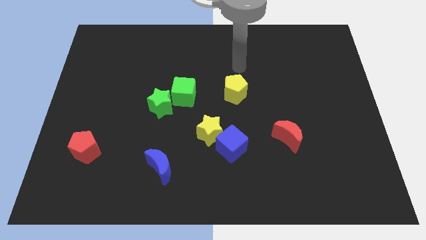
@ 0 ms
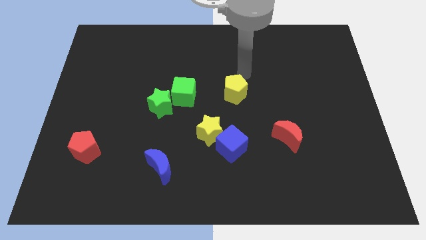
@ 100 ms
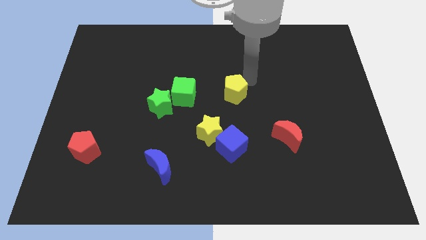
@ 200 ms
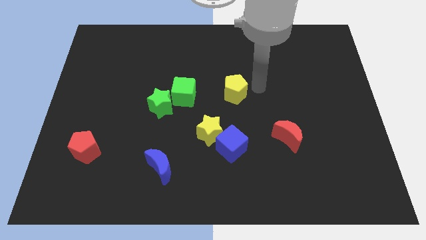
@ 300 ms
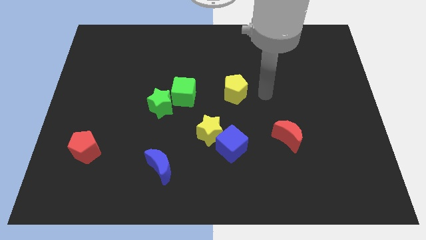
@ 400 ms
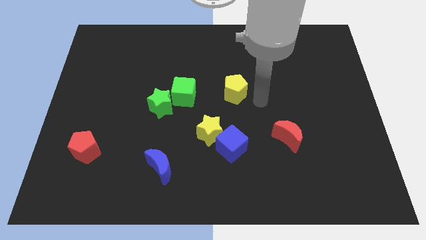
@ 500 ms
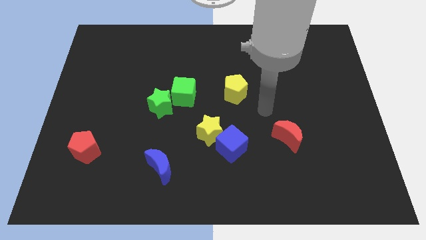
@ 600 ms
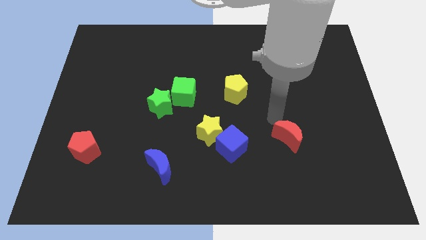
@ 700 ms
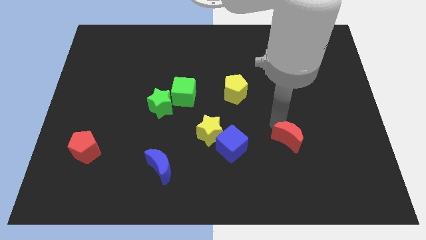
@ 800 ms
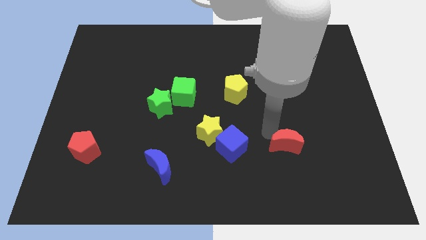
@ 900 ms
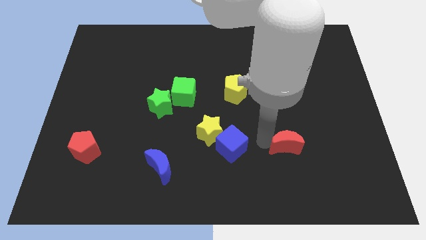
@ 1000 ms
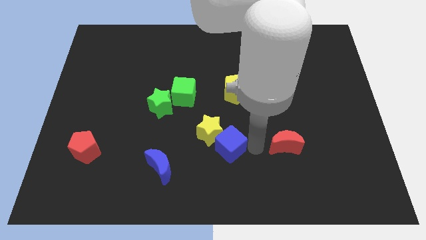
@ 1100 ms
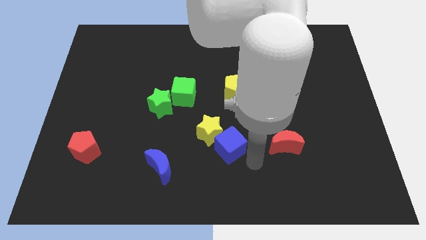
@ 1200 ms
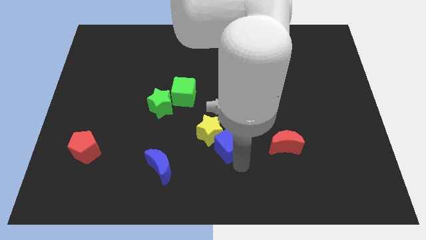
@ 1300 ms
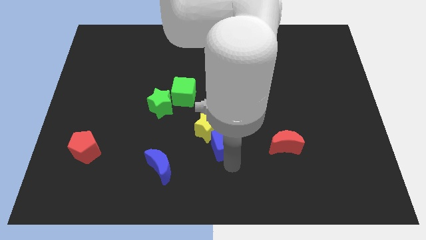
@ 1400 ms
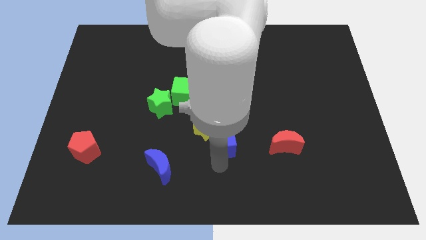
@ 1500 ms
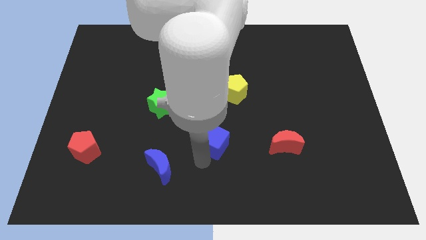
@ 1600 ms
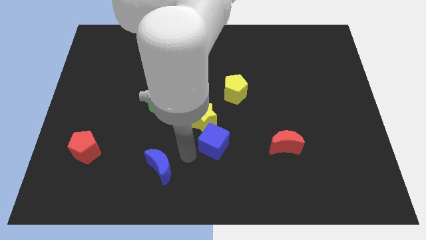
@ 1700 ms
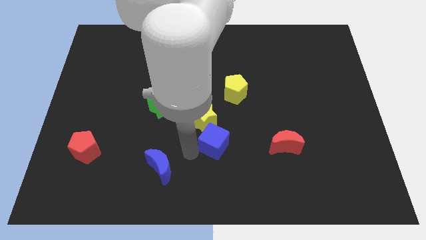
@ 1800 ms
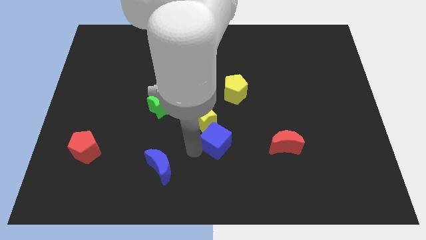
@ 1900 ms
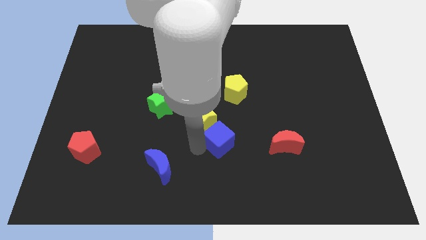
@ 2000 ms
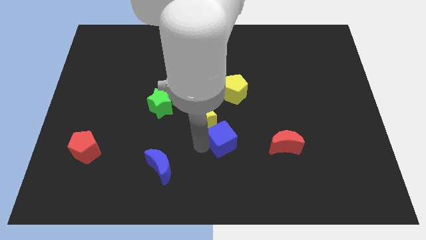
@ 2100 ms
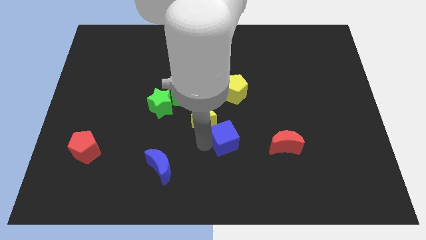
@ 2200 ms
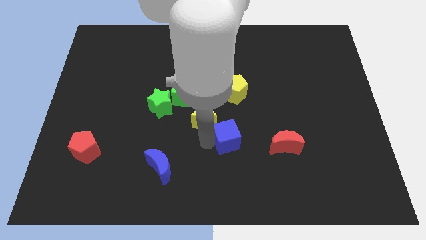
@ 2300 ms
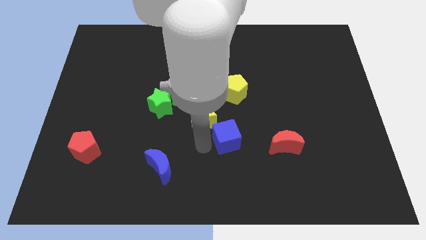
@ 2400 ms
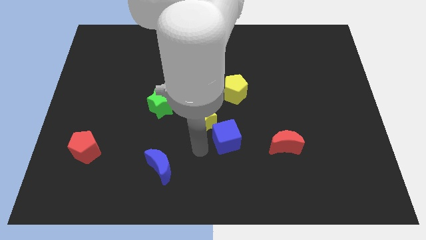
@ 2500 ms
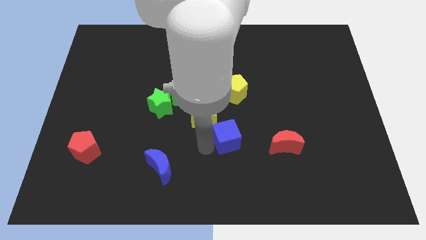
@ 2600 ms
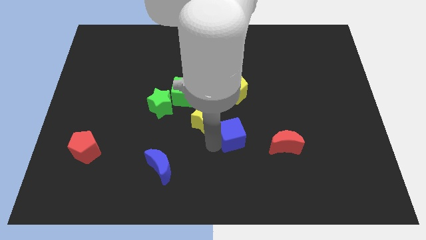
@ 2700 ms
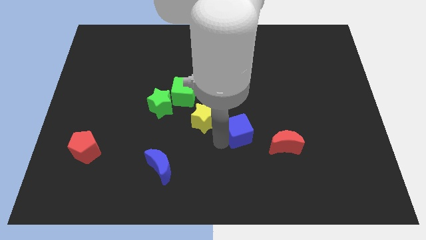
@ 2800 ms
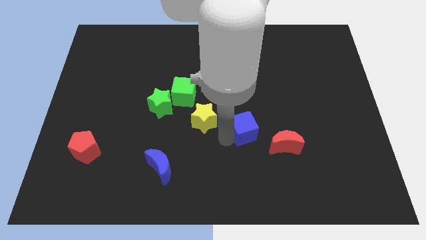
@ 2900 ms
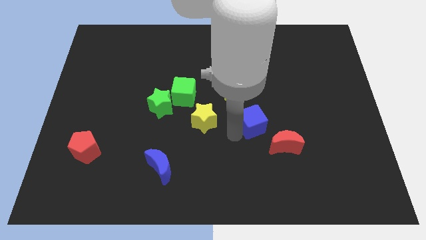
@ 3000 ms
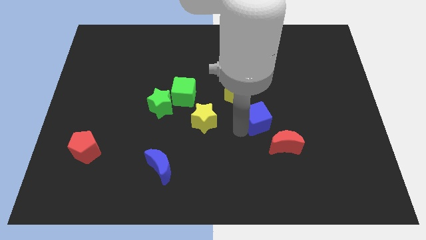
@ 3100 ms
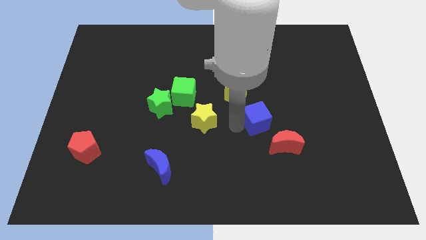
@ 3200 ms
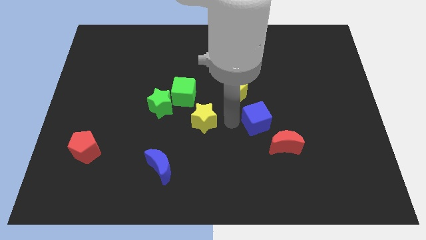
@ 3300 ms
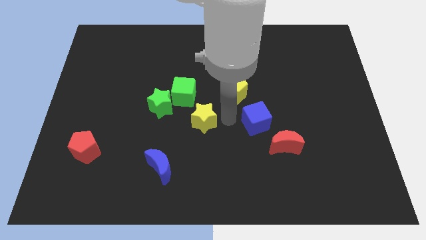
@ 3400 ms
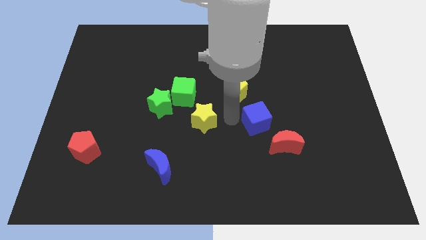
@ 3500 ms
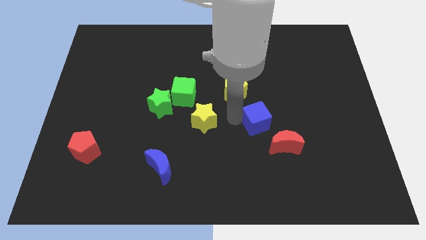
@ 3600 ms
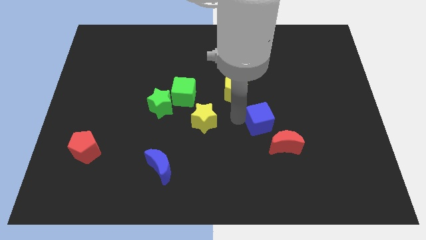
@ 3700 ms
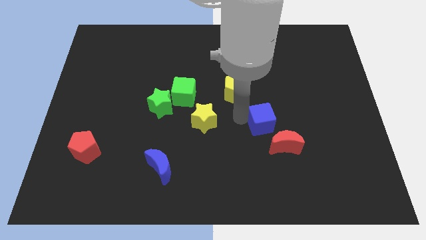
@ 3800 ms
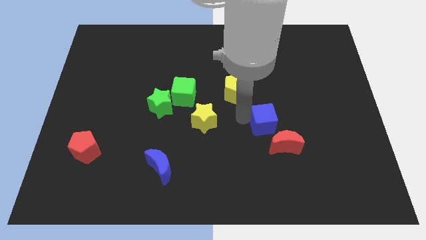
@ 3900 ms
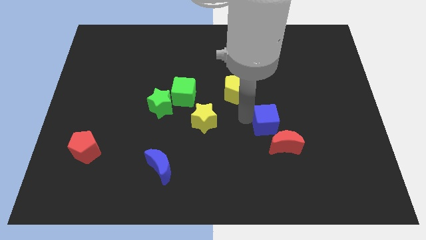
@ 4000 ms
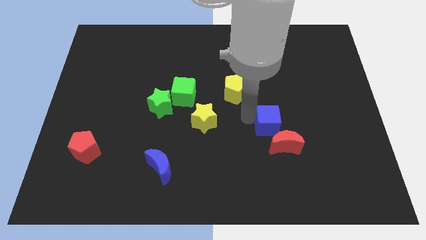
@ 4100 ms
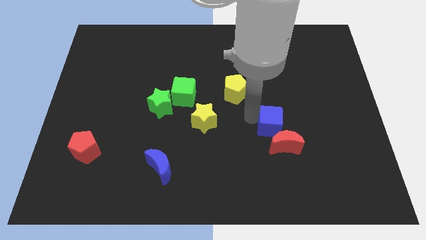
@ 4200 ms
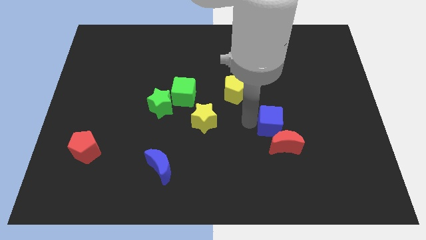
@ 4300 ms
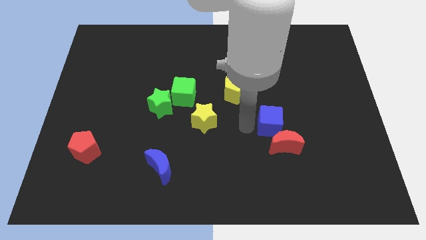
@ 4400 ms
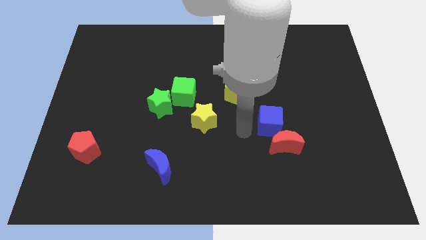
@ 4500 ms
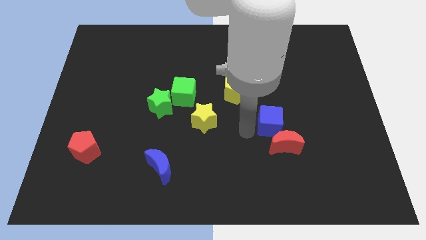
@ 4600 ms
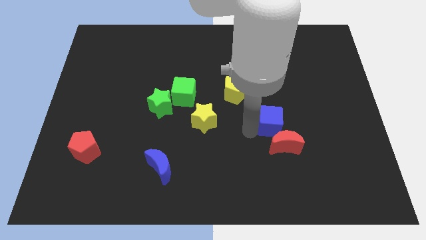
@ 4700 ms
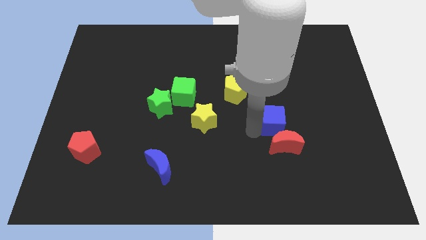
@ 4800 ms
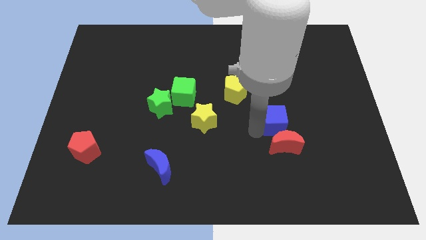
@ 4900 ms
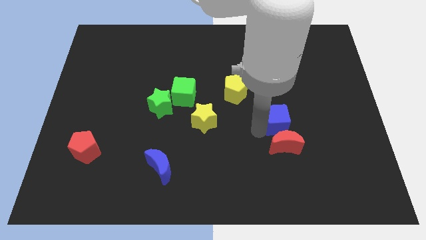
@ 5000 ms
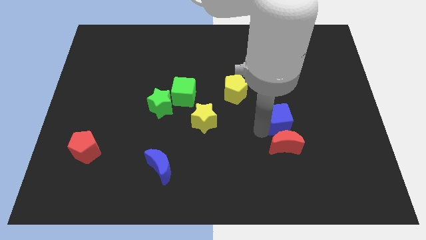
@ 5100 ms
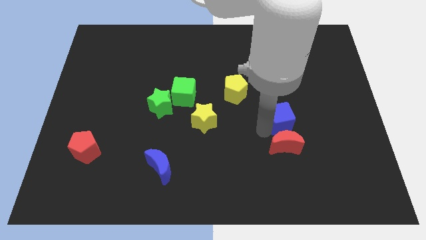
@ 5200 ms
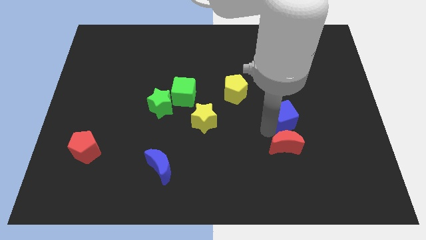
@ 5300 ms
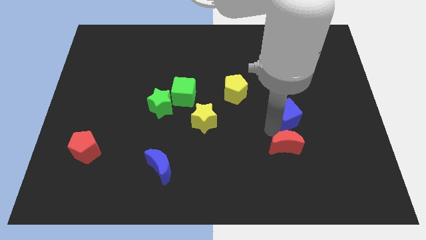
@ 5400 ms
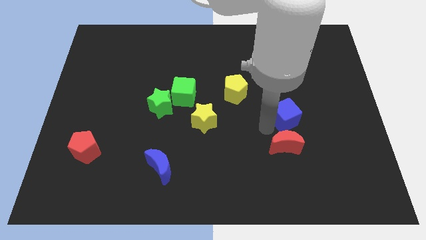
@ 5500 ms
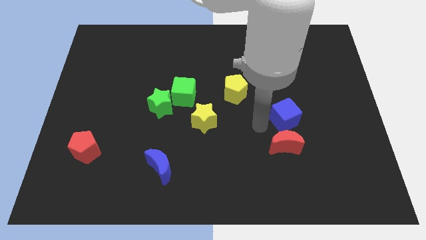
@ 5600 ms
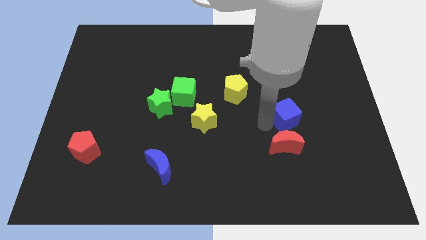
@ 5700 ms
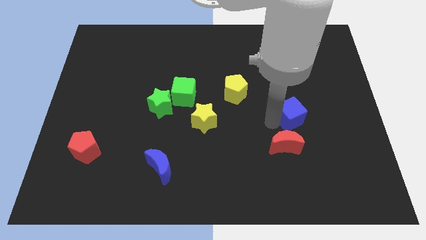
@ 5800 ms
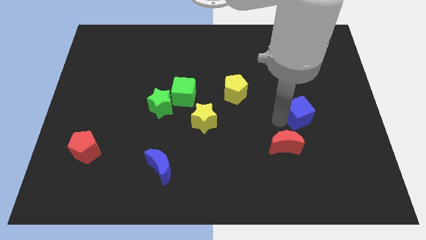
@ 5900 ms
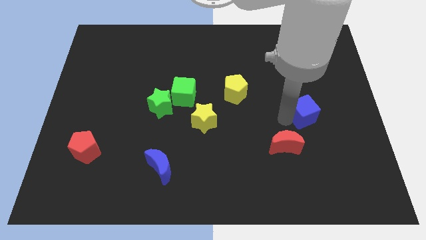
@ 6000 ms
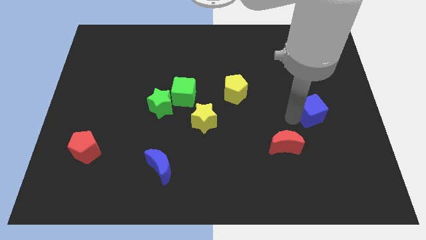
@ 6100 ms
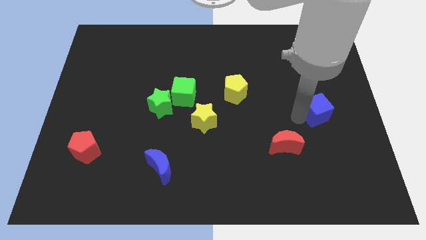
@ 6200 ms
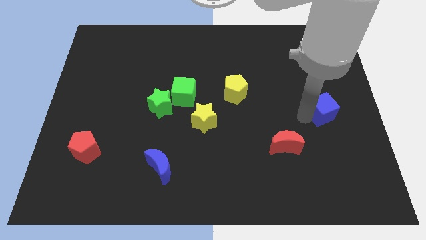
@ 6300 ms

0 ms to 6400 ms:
slide the blue cube to the right side of the board

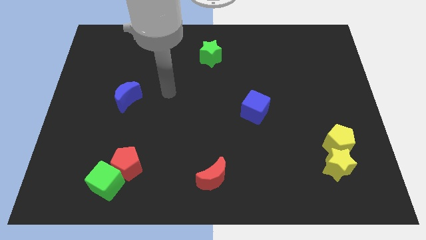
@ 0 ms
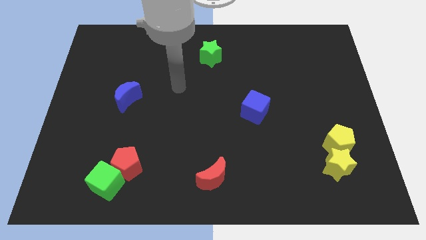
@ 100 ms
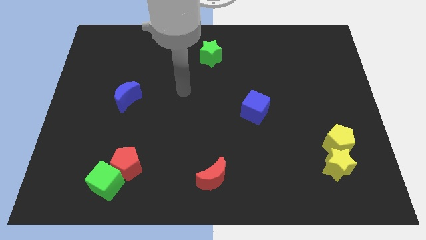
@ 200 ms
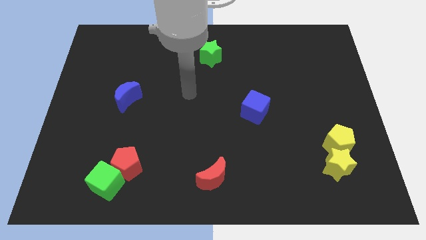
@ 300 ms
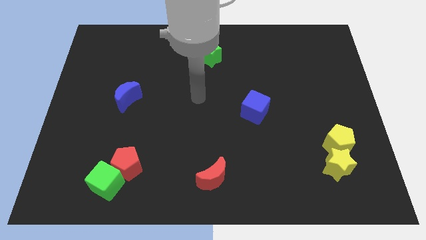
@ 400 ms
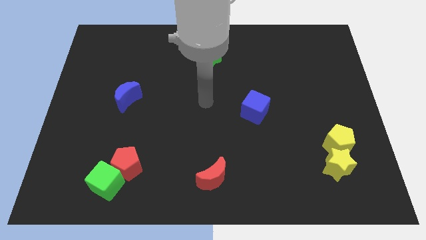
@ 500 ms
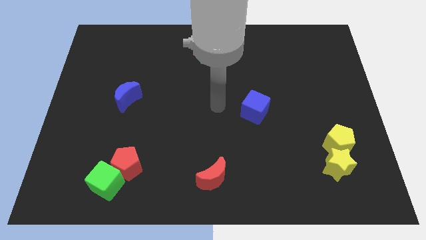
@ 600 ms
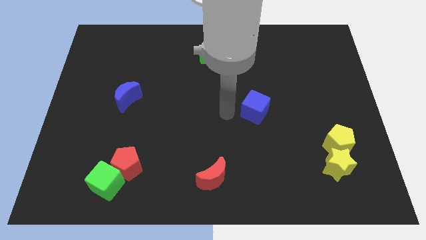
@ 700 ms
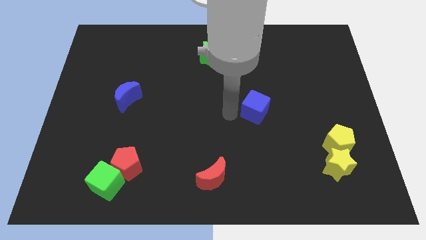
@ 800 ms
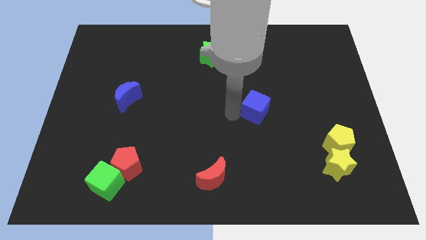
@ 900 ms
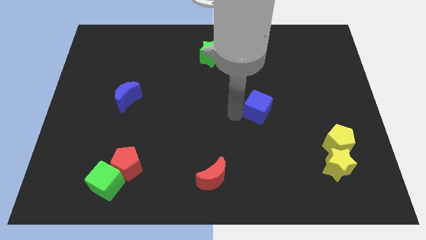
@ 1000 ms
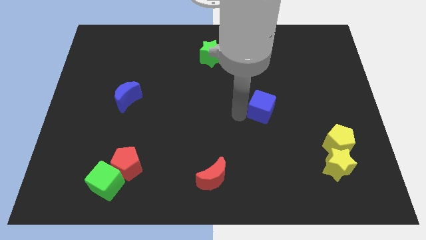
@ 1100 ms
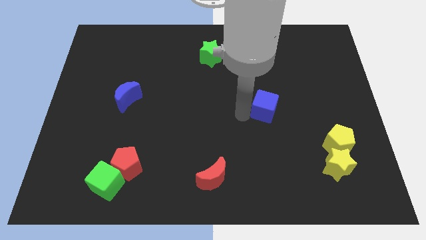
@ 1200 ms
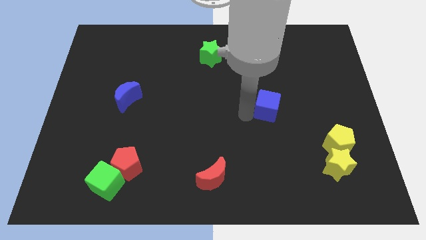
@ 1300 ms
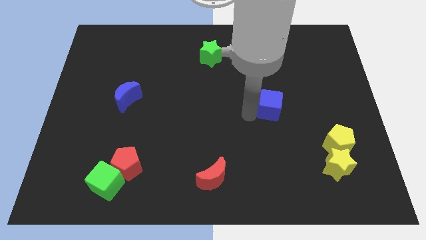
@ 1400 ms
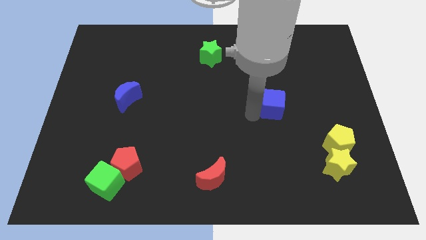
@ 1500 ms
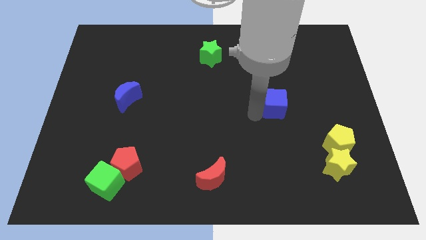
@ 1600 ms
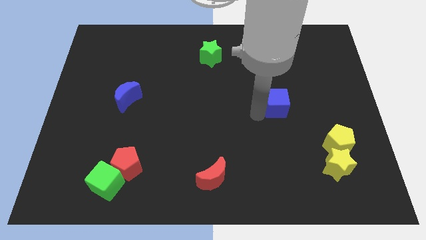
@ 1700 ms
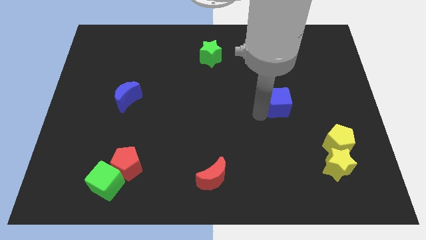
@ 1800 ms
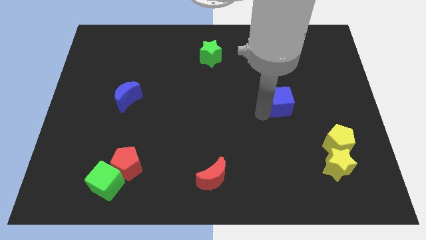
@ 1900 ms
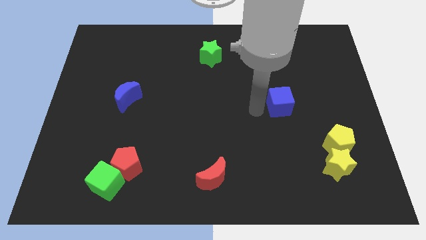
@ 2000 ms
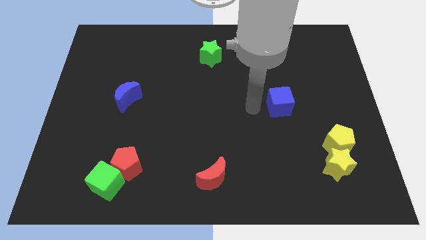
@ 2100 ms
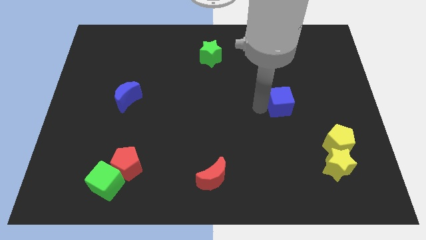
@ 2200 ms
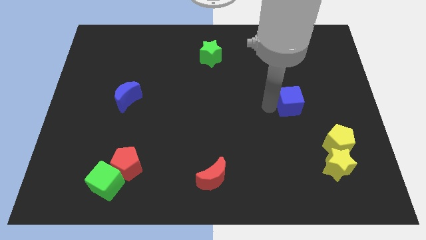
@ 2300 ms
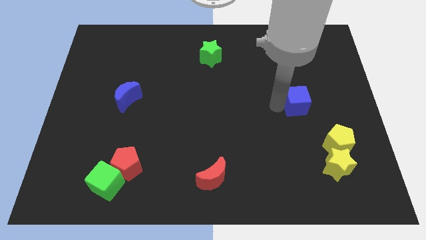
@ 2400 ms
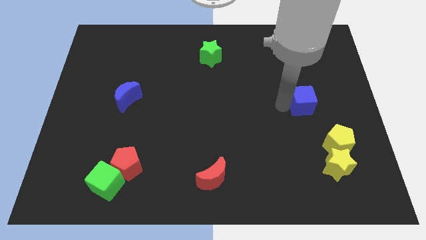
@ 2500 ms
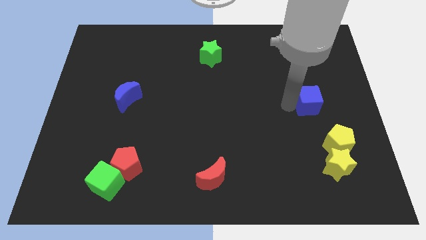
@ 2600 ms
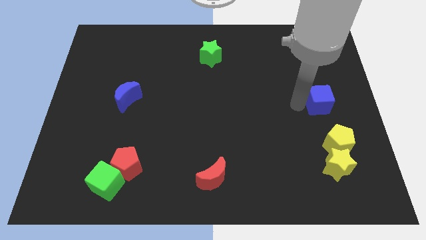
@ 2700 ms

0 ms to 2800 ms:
move the blue cube to the right side
